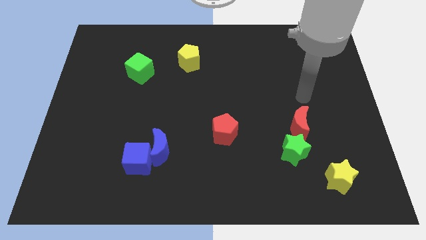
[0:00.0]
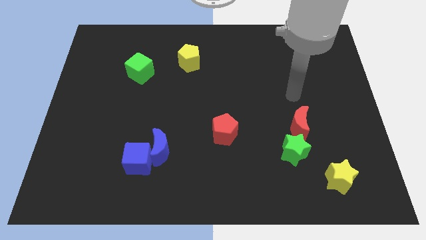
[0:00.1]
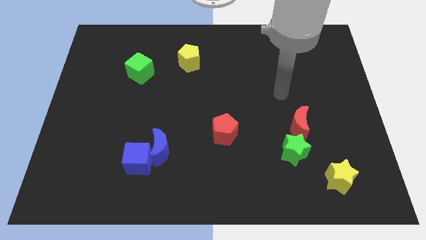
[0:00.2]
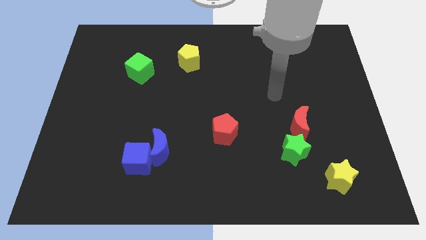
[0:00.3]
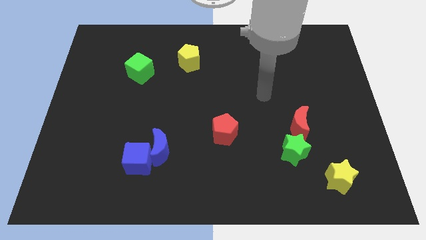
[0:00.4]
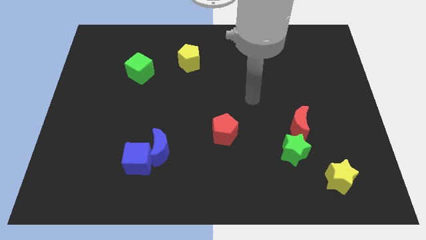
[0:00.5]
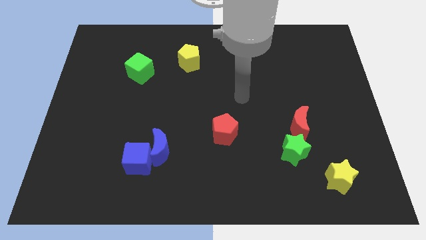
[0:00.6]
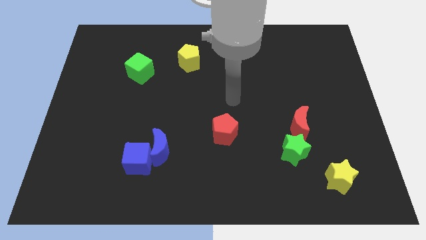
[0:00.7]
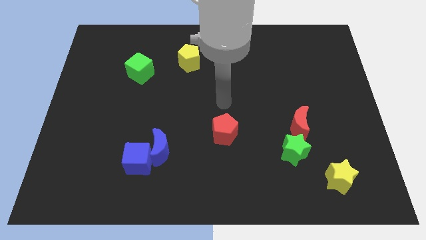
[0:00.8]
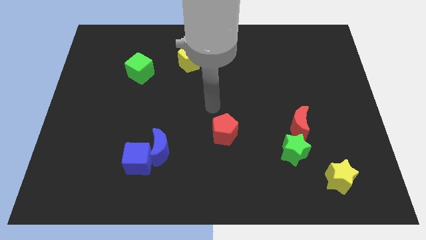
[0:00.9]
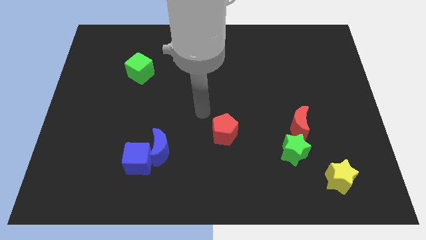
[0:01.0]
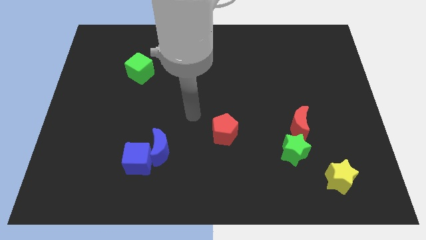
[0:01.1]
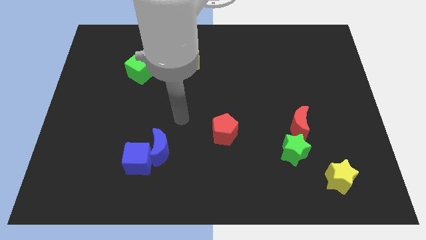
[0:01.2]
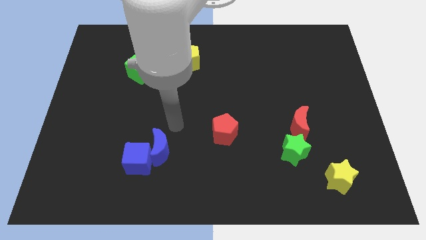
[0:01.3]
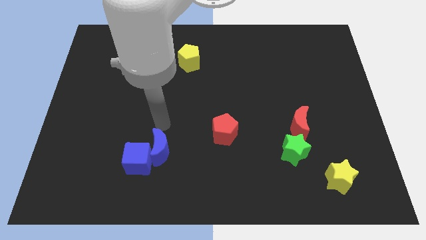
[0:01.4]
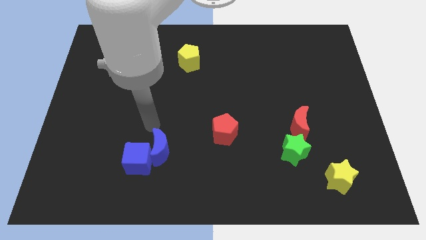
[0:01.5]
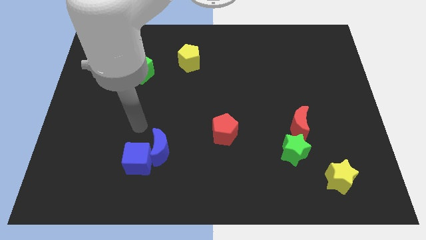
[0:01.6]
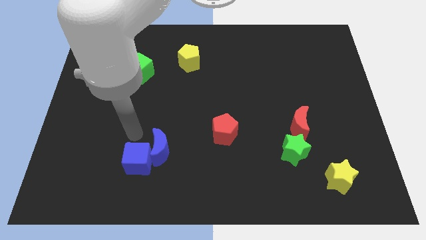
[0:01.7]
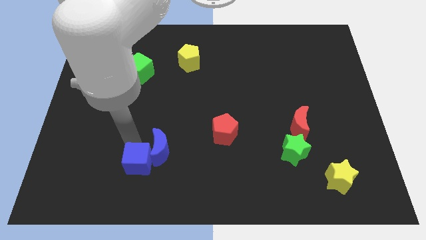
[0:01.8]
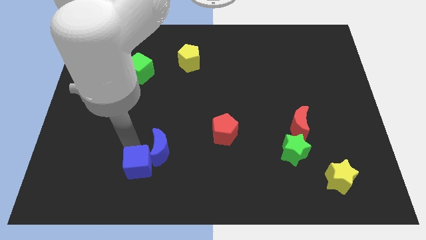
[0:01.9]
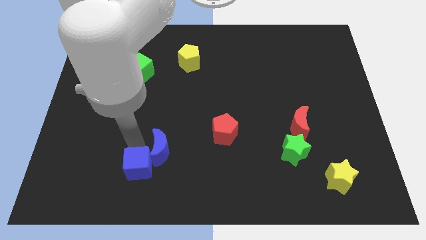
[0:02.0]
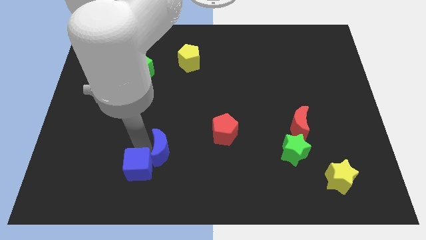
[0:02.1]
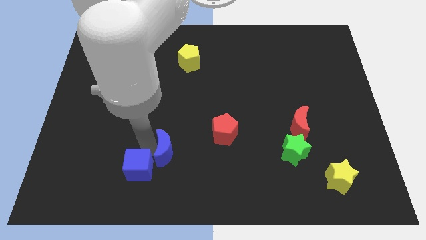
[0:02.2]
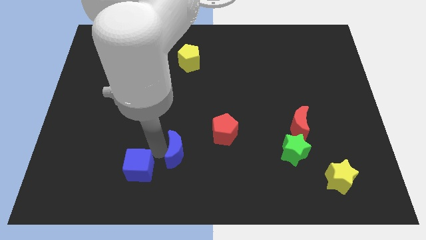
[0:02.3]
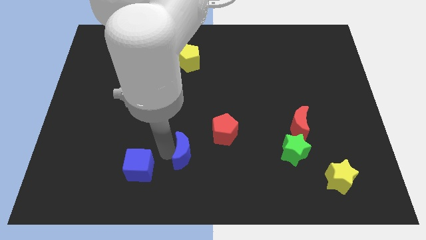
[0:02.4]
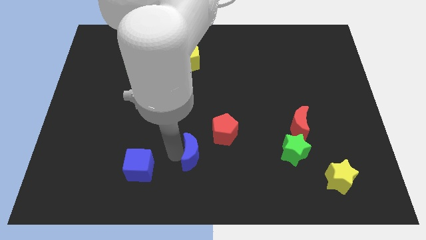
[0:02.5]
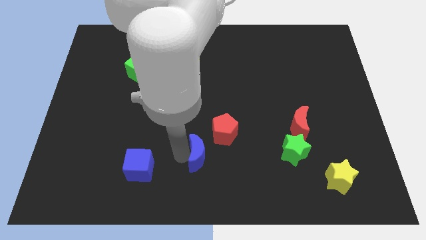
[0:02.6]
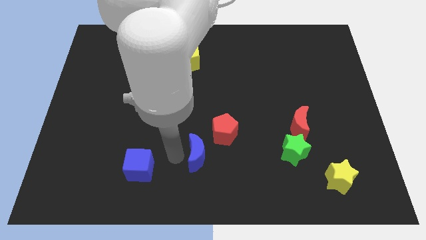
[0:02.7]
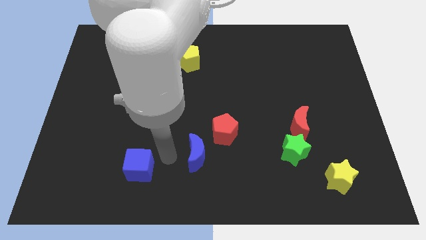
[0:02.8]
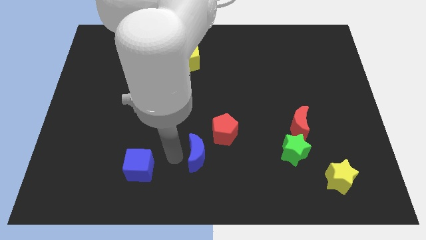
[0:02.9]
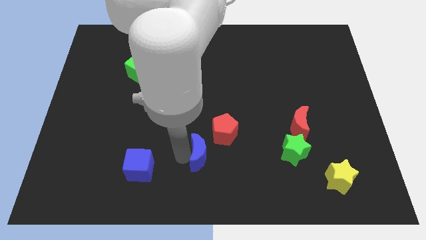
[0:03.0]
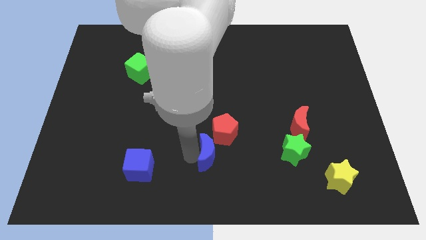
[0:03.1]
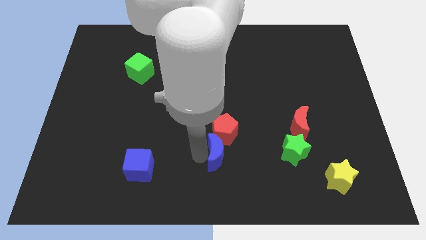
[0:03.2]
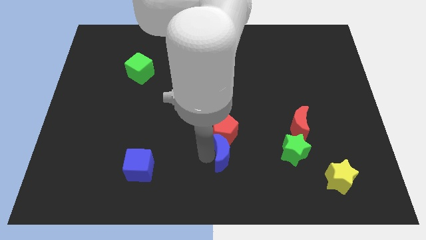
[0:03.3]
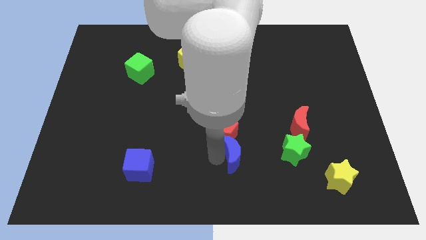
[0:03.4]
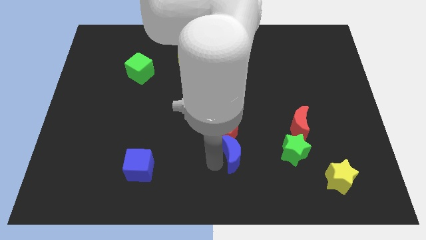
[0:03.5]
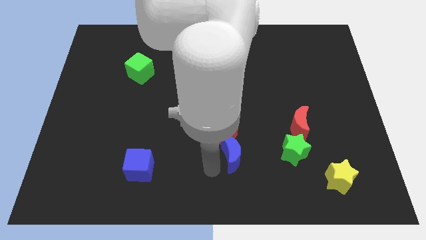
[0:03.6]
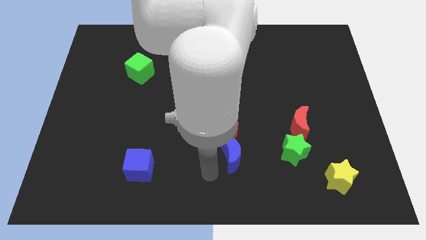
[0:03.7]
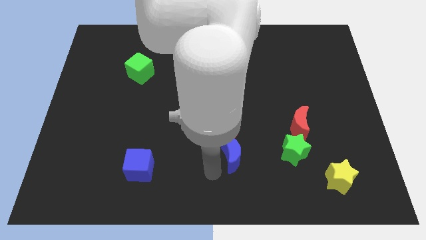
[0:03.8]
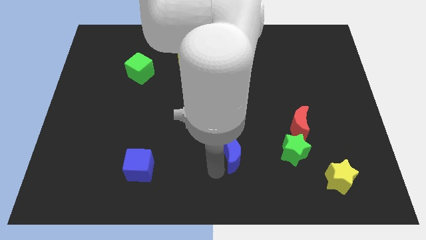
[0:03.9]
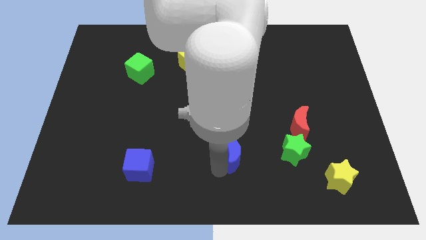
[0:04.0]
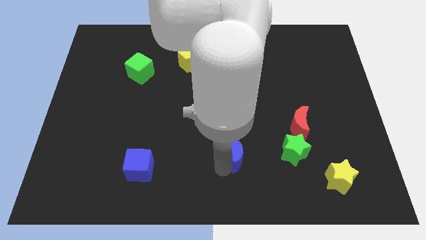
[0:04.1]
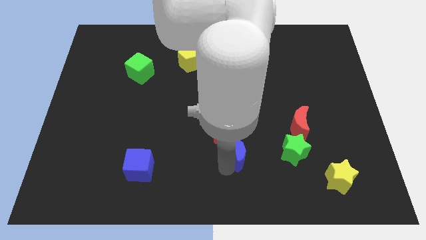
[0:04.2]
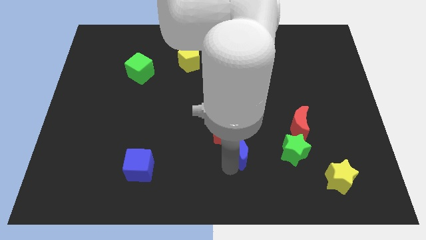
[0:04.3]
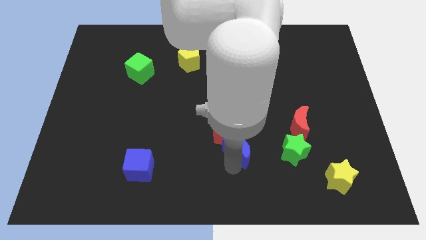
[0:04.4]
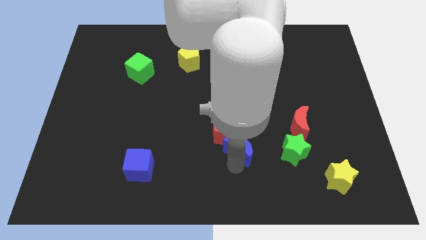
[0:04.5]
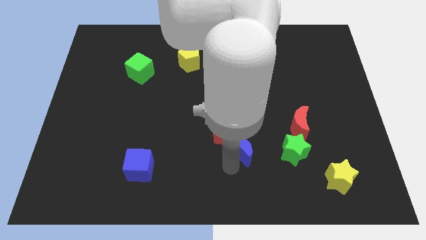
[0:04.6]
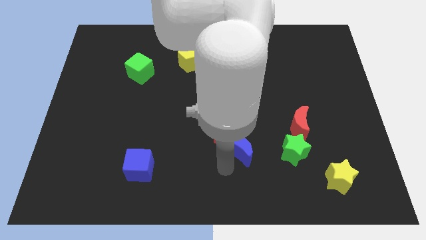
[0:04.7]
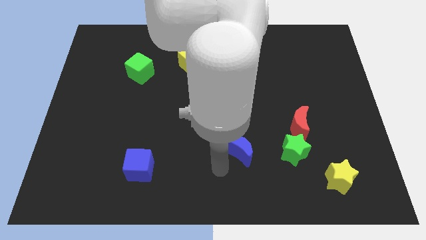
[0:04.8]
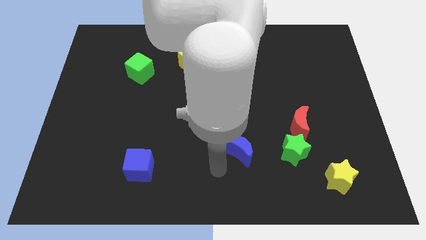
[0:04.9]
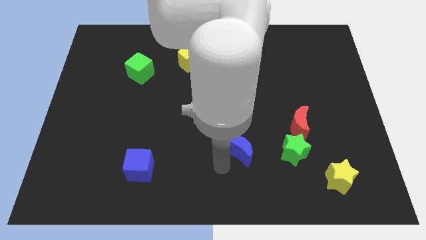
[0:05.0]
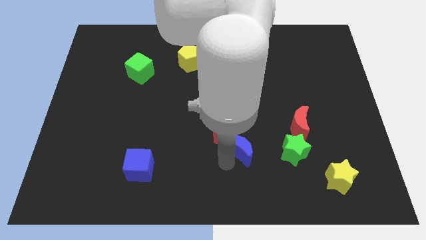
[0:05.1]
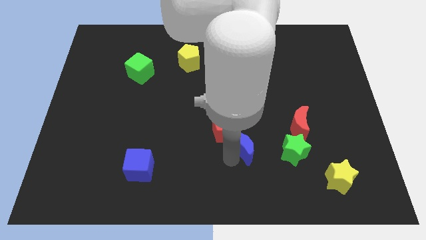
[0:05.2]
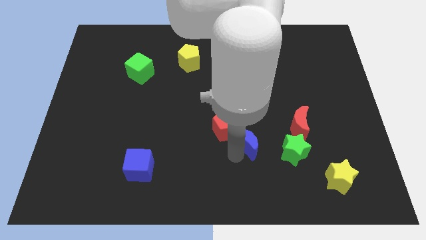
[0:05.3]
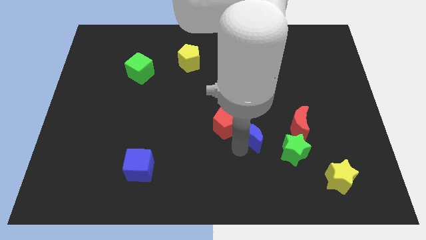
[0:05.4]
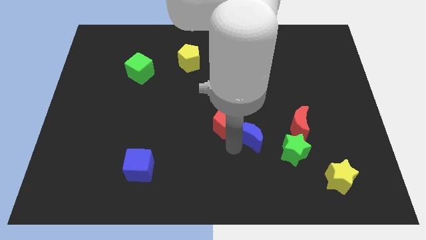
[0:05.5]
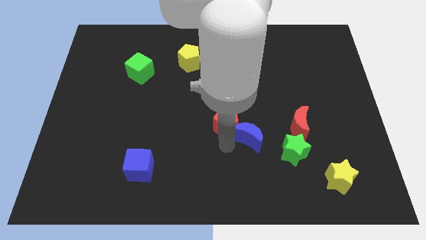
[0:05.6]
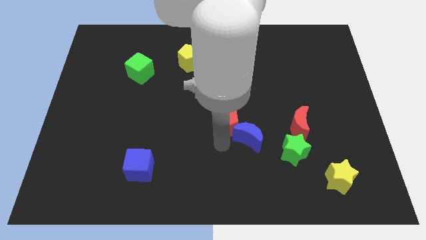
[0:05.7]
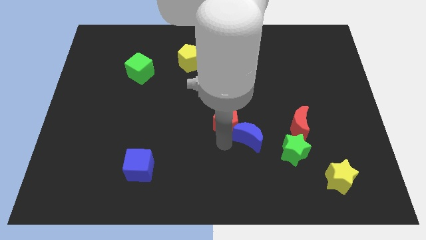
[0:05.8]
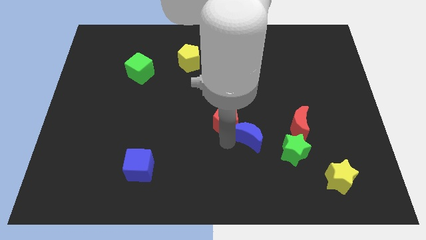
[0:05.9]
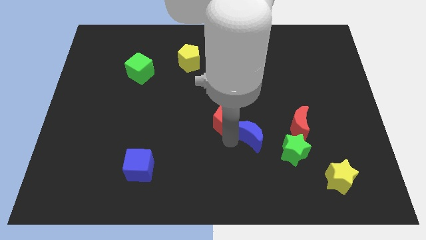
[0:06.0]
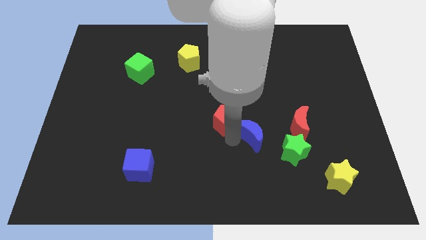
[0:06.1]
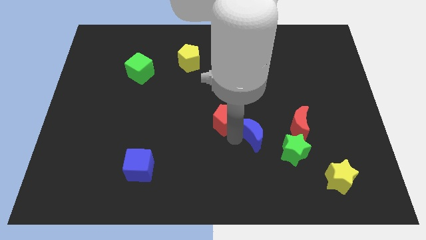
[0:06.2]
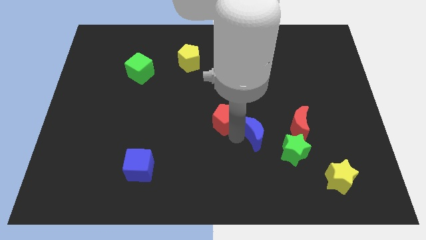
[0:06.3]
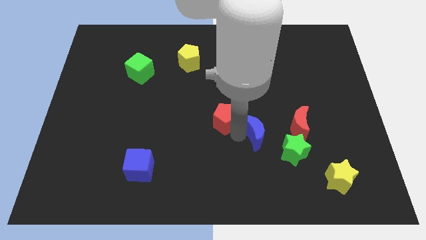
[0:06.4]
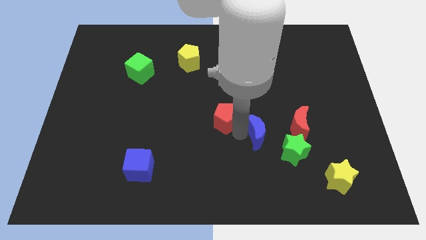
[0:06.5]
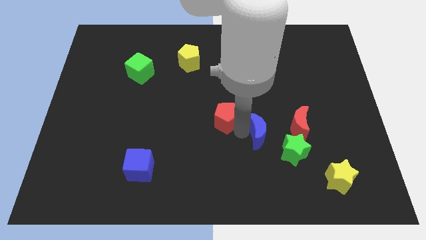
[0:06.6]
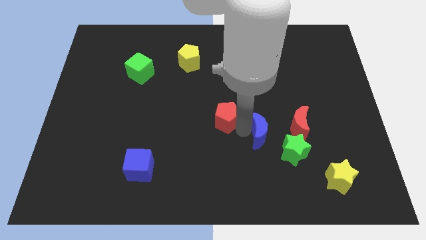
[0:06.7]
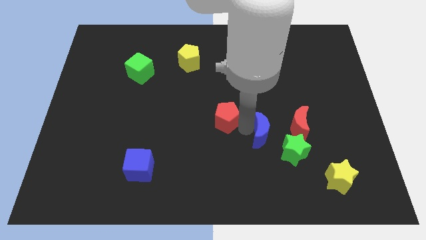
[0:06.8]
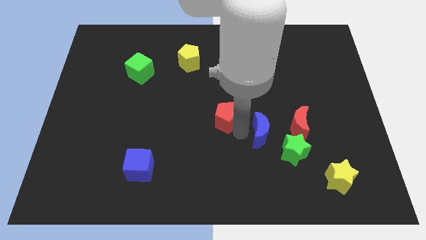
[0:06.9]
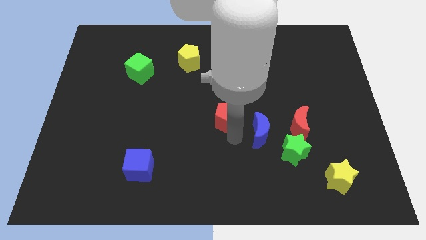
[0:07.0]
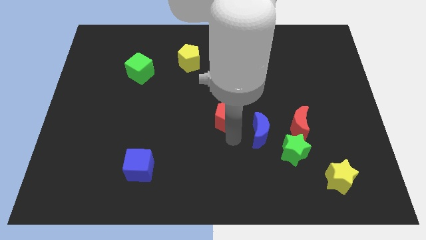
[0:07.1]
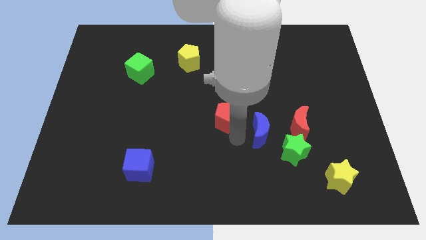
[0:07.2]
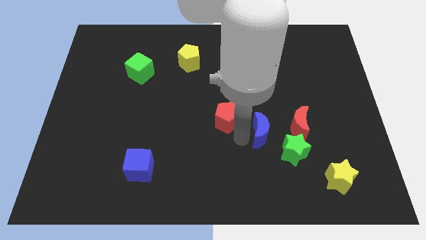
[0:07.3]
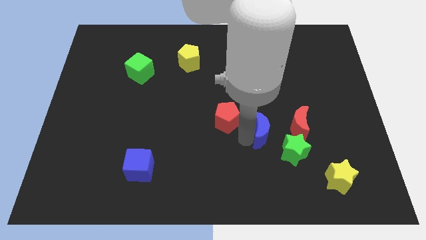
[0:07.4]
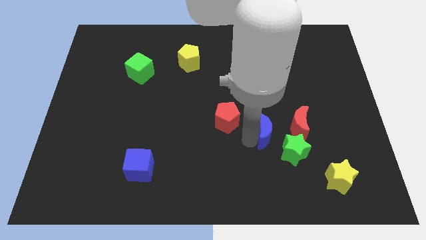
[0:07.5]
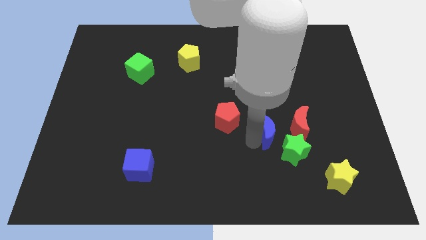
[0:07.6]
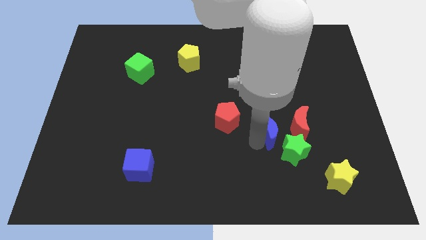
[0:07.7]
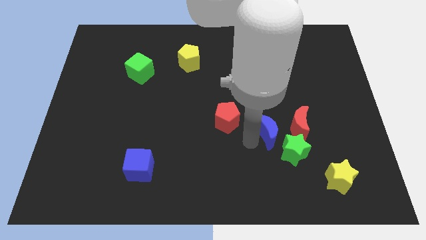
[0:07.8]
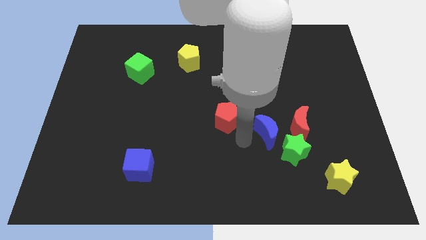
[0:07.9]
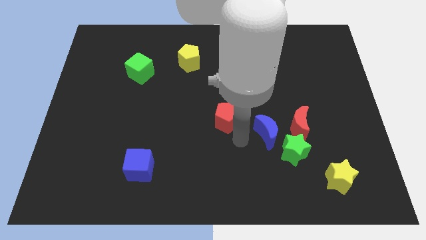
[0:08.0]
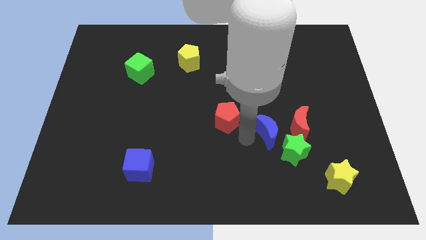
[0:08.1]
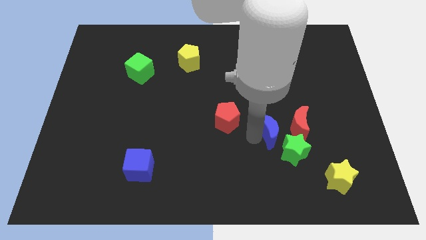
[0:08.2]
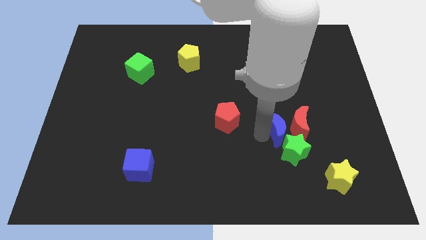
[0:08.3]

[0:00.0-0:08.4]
move the blue moon next to the red moon
